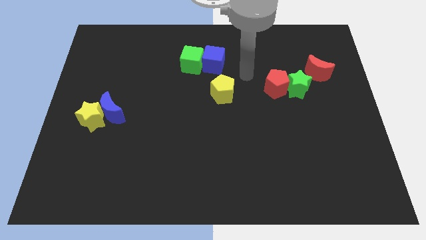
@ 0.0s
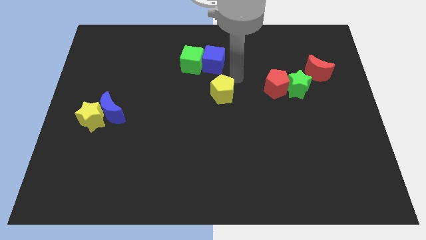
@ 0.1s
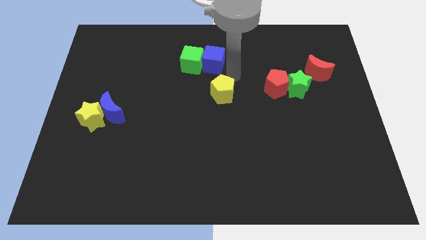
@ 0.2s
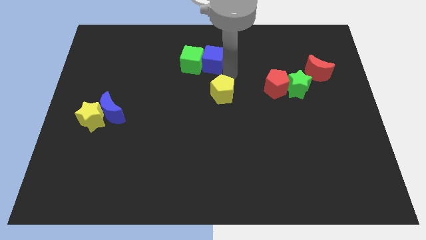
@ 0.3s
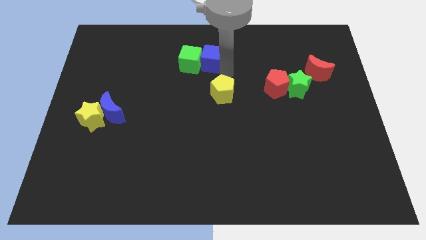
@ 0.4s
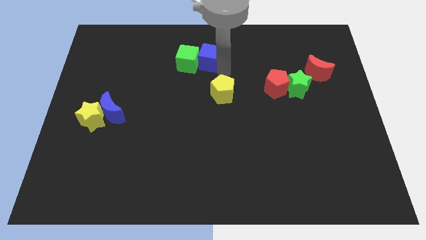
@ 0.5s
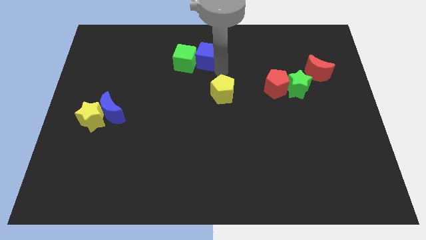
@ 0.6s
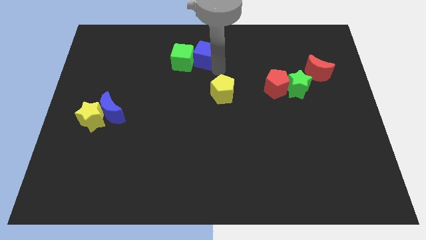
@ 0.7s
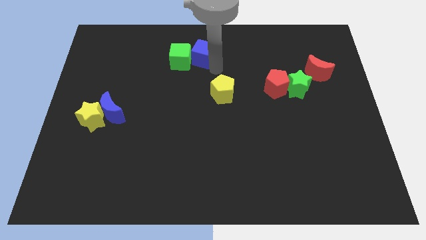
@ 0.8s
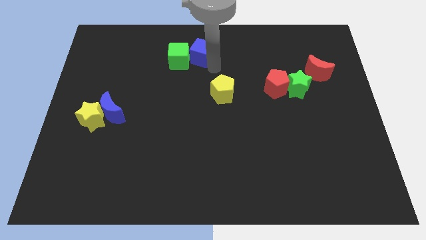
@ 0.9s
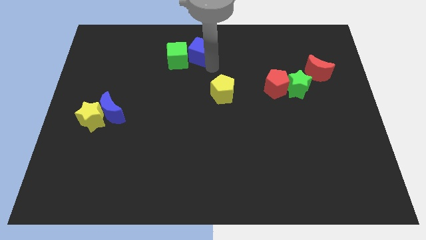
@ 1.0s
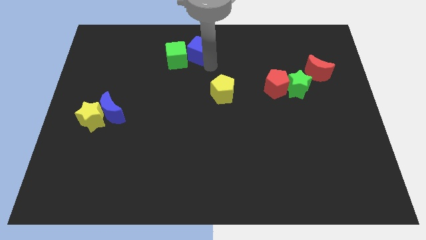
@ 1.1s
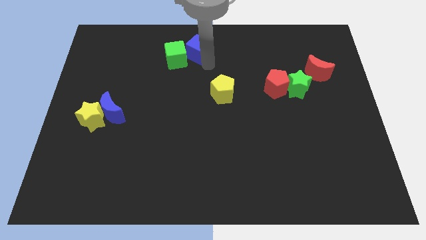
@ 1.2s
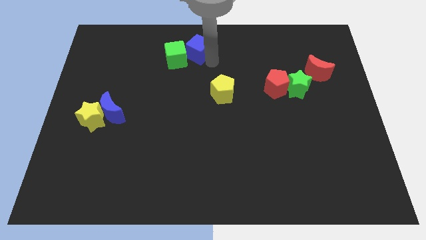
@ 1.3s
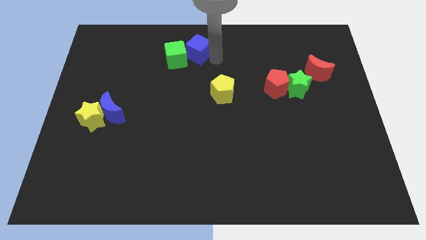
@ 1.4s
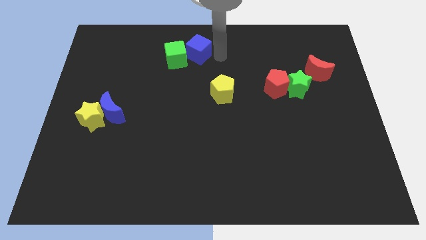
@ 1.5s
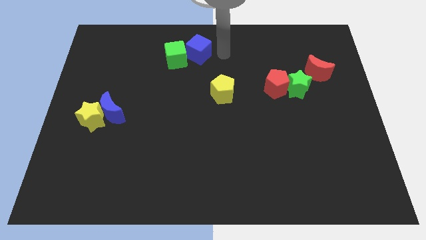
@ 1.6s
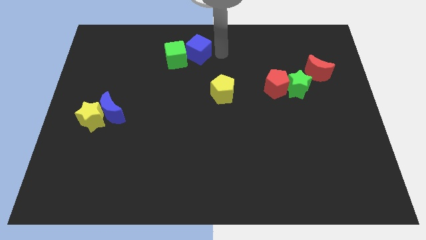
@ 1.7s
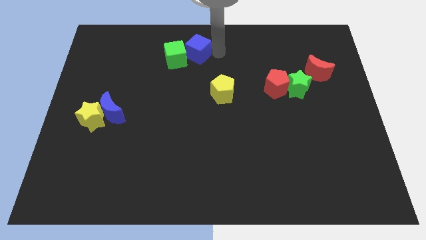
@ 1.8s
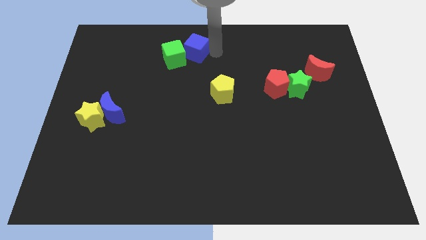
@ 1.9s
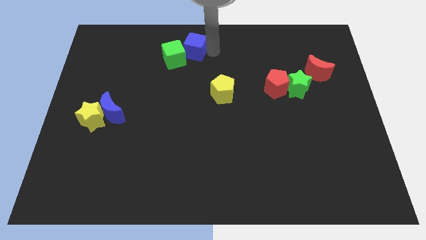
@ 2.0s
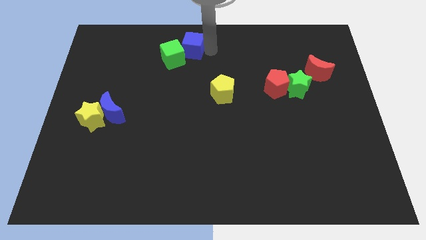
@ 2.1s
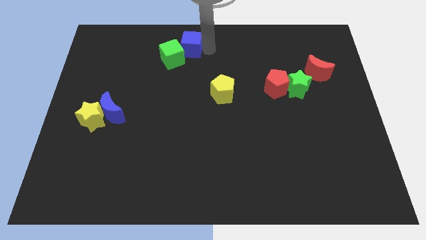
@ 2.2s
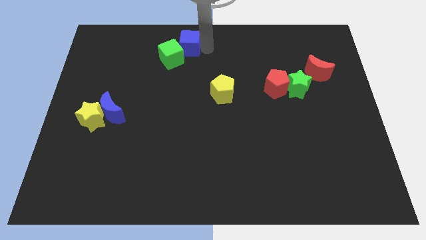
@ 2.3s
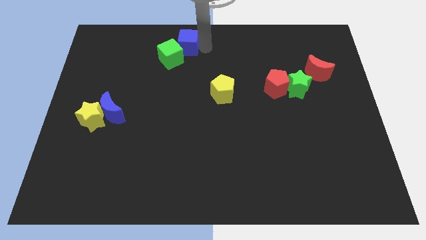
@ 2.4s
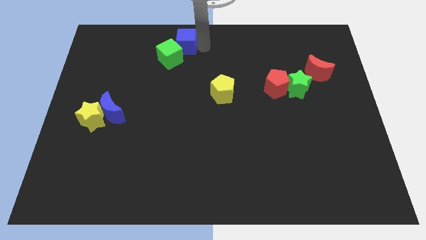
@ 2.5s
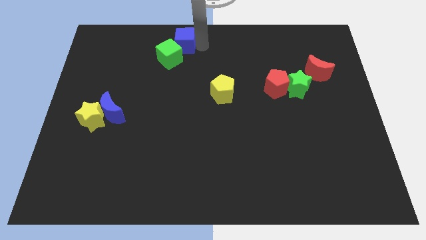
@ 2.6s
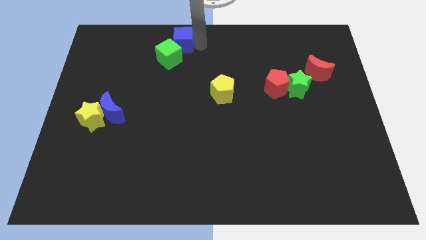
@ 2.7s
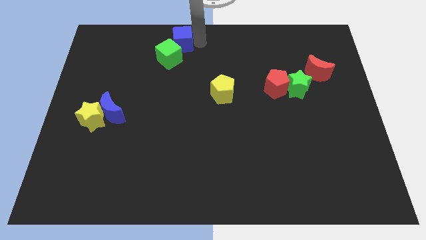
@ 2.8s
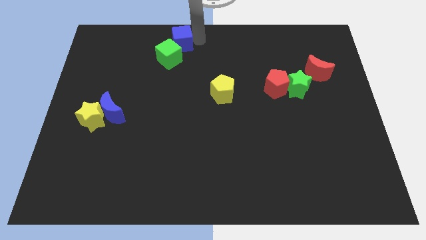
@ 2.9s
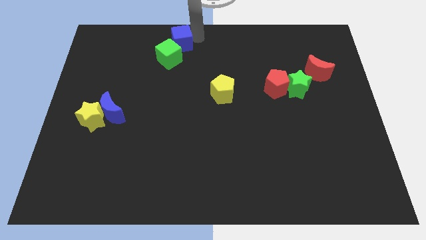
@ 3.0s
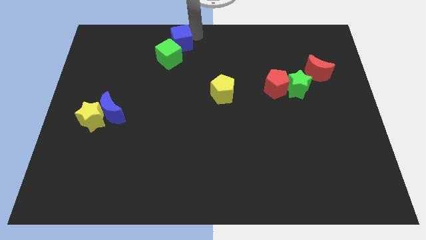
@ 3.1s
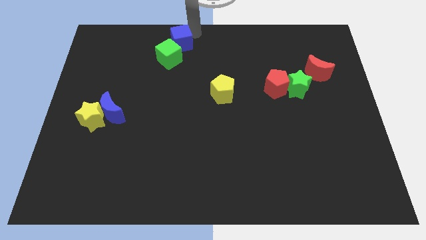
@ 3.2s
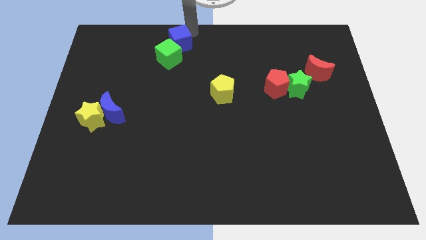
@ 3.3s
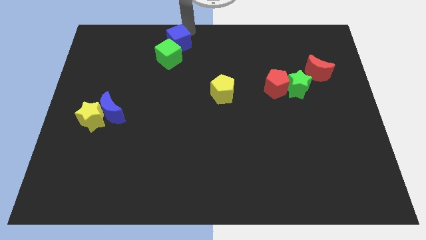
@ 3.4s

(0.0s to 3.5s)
push the blue cube to the left slightly

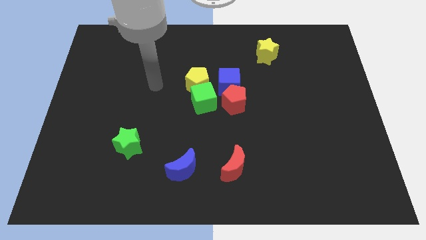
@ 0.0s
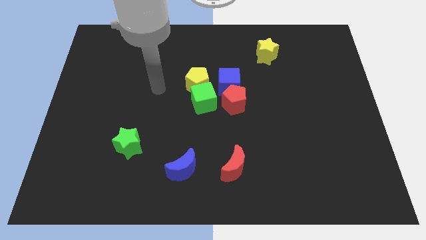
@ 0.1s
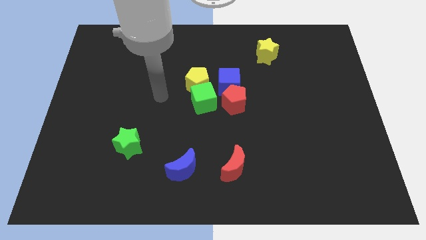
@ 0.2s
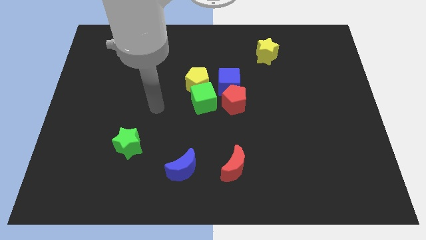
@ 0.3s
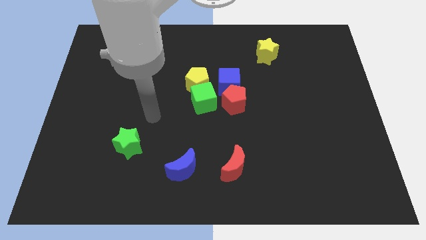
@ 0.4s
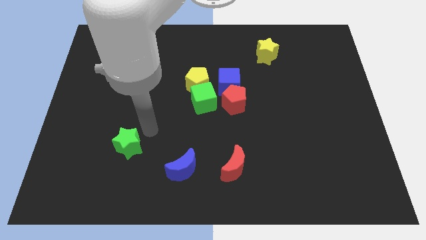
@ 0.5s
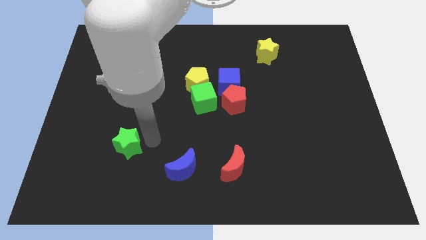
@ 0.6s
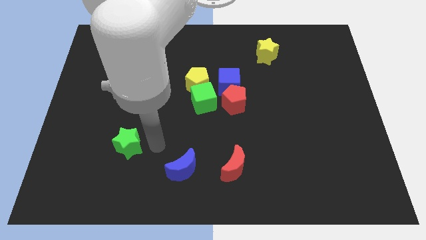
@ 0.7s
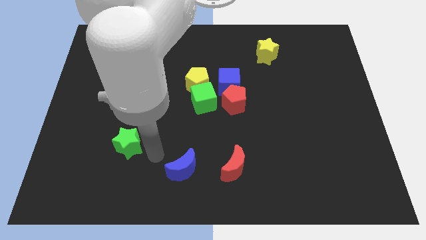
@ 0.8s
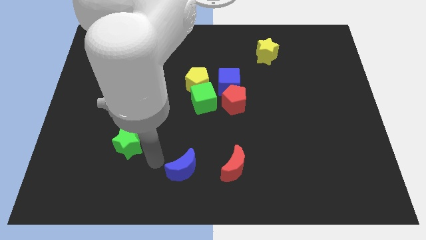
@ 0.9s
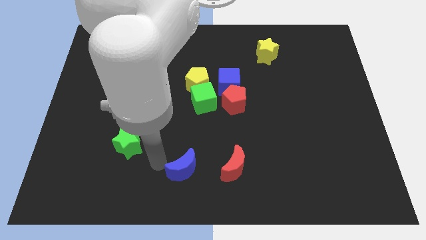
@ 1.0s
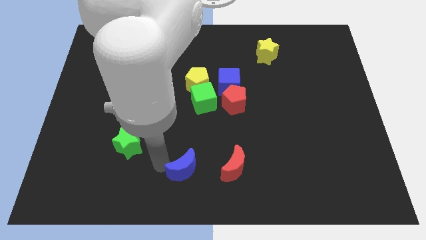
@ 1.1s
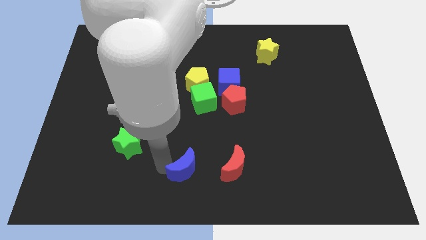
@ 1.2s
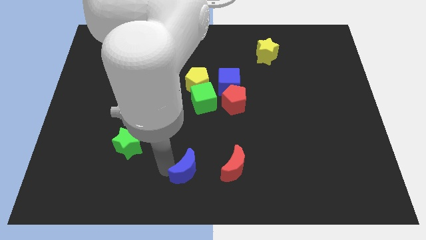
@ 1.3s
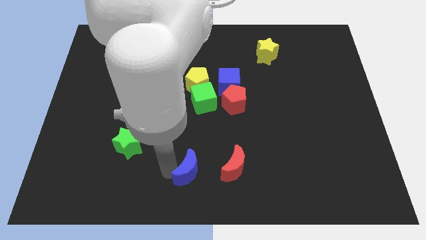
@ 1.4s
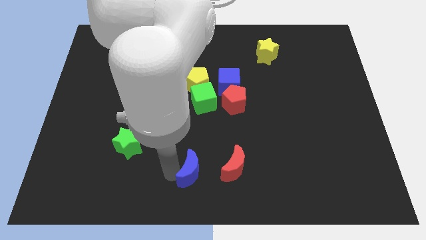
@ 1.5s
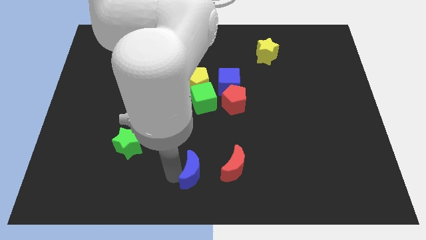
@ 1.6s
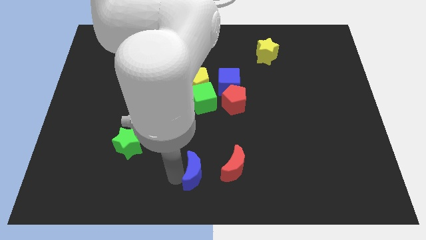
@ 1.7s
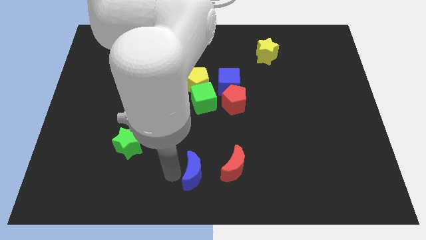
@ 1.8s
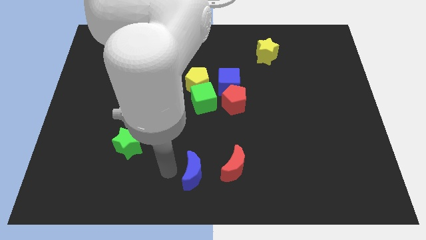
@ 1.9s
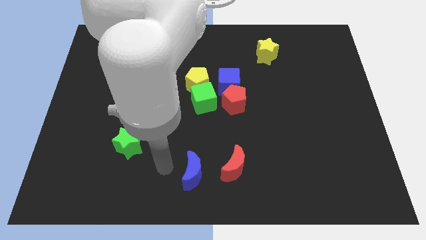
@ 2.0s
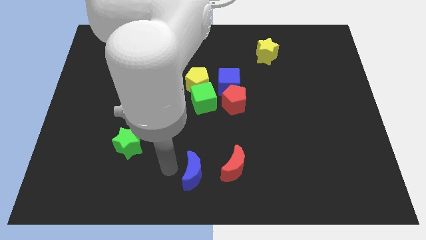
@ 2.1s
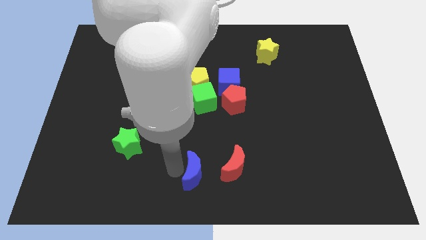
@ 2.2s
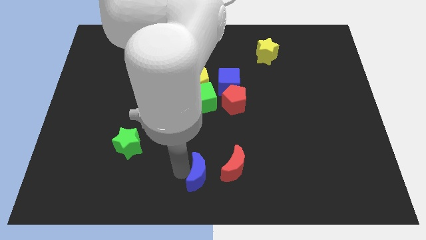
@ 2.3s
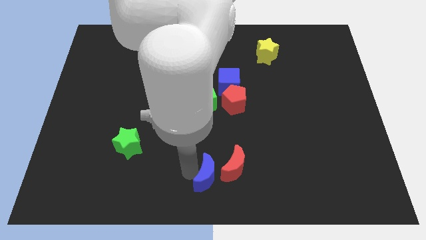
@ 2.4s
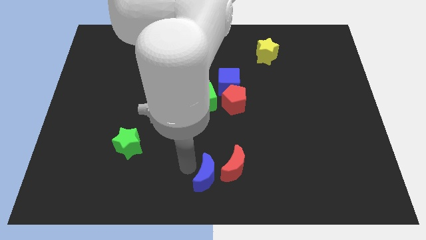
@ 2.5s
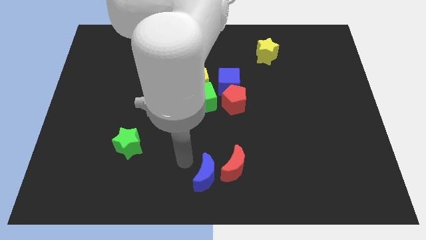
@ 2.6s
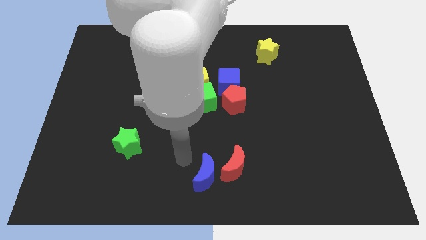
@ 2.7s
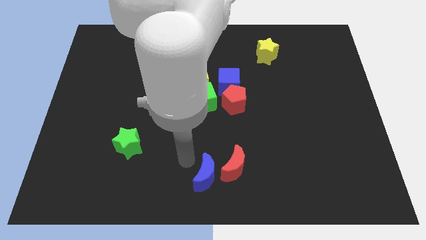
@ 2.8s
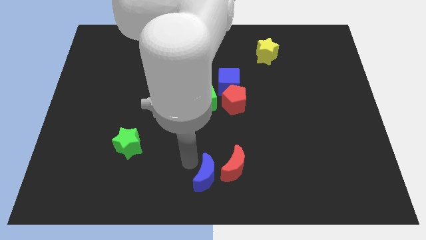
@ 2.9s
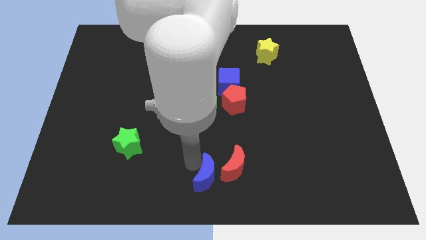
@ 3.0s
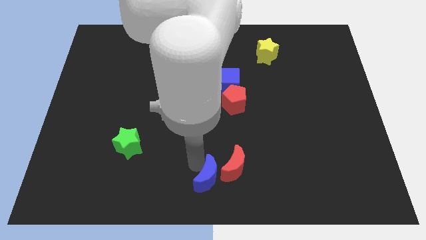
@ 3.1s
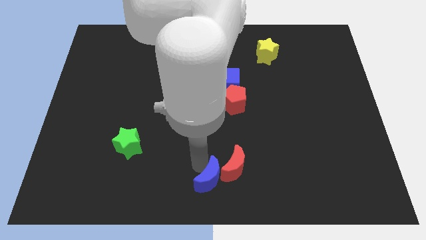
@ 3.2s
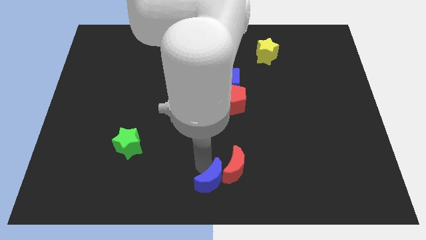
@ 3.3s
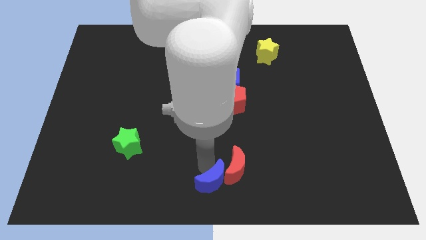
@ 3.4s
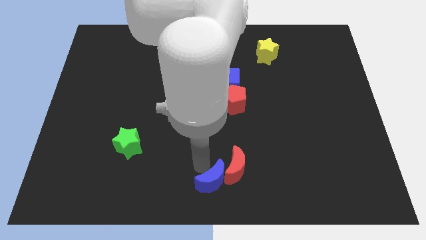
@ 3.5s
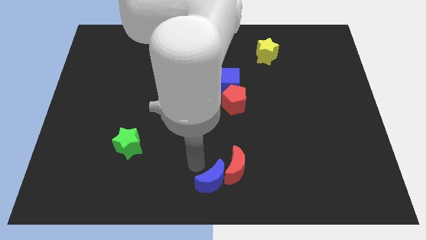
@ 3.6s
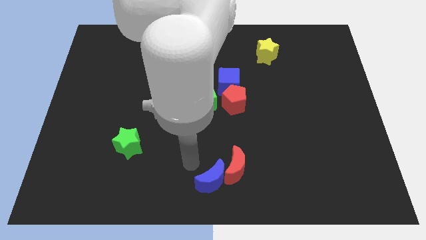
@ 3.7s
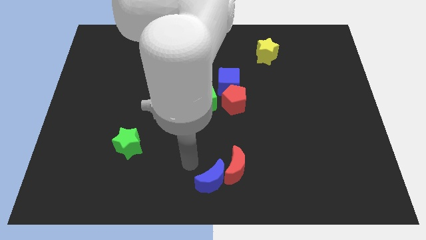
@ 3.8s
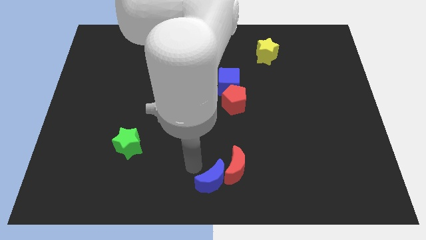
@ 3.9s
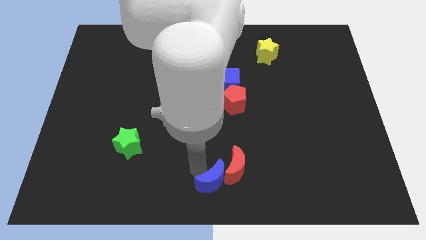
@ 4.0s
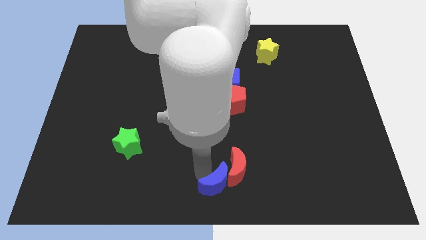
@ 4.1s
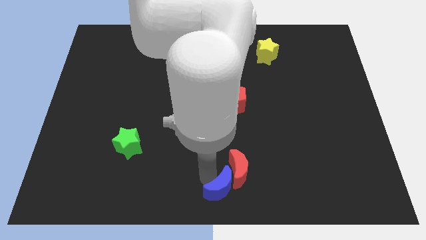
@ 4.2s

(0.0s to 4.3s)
push the blue moon right a little bit

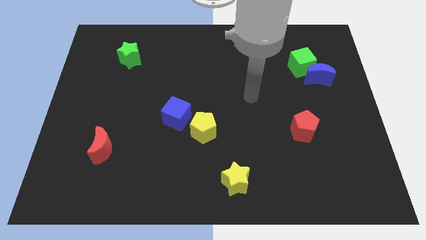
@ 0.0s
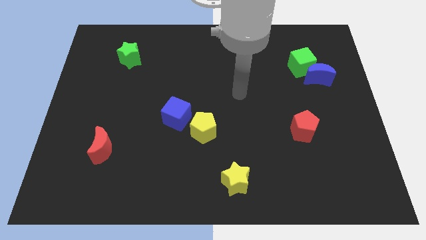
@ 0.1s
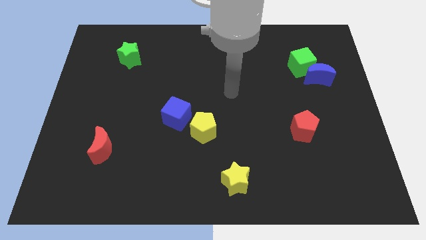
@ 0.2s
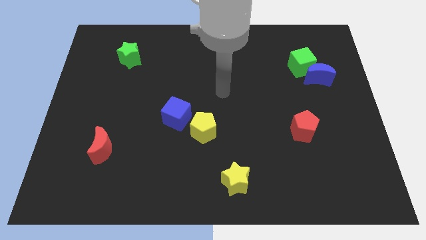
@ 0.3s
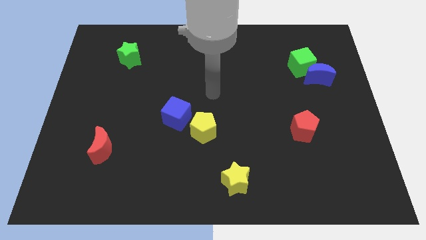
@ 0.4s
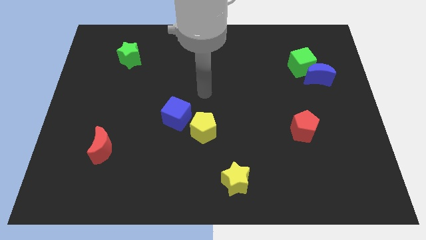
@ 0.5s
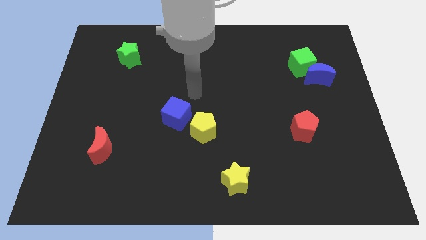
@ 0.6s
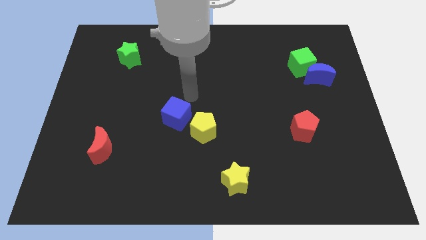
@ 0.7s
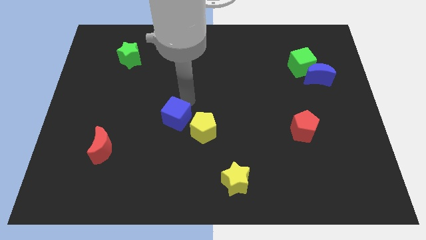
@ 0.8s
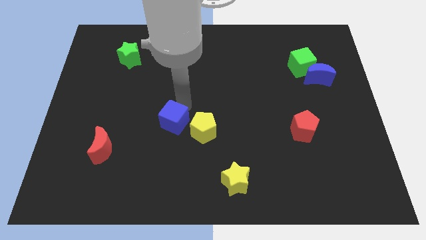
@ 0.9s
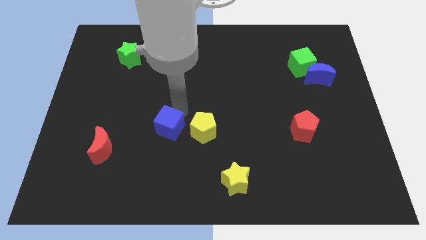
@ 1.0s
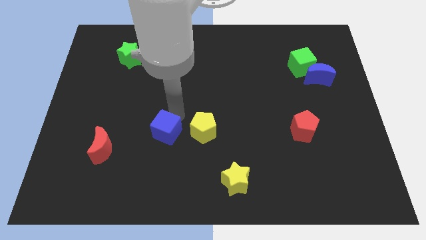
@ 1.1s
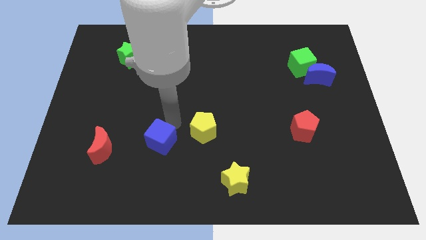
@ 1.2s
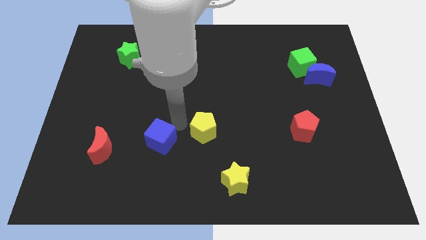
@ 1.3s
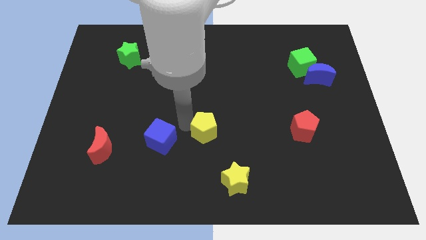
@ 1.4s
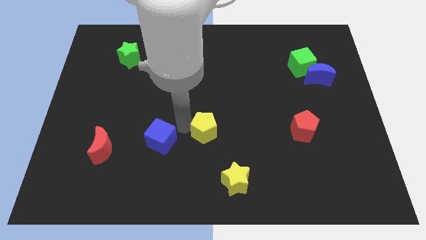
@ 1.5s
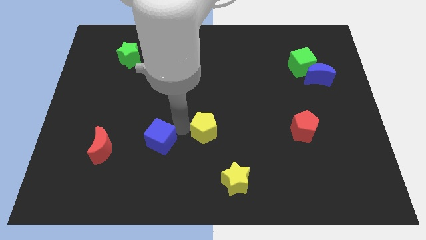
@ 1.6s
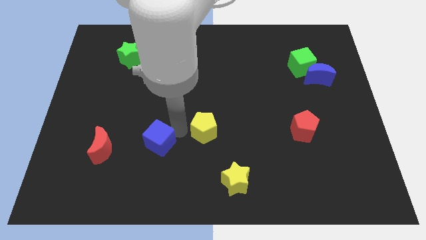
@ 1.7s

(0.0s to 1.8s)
slide the blue cube diagonally down and left a bit
